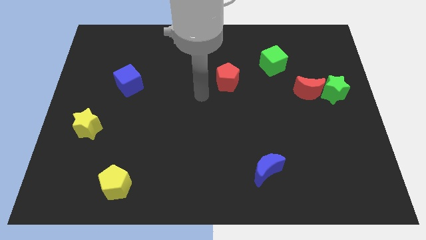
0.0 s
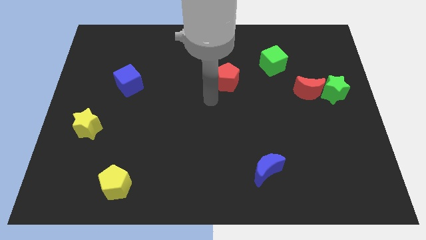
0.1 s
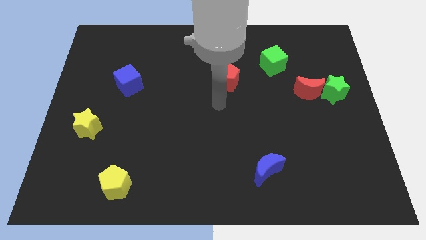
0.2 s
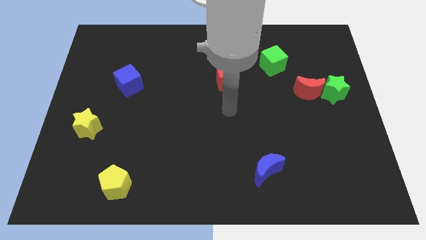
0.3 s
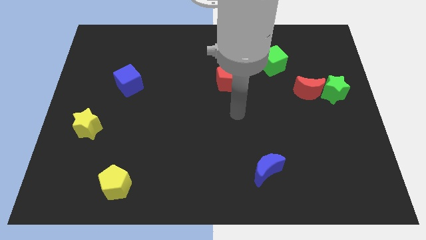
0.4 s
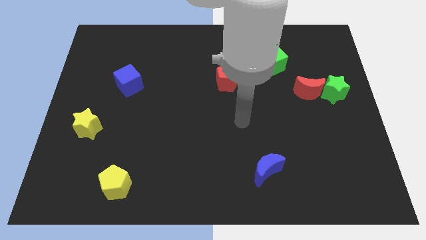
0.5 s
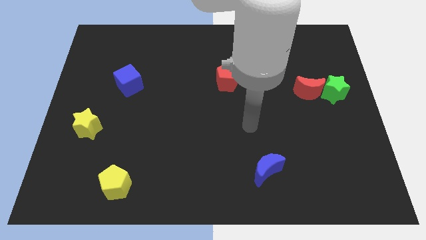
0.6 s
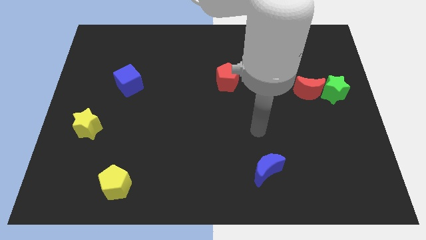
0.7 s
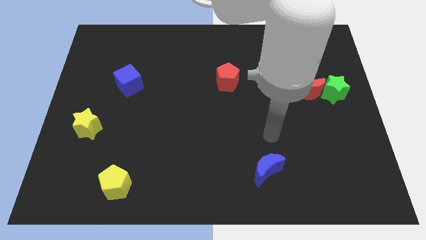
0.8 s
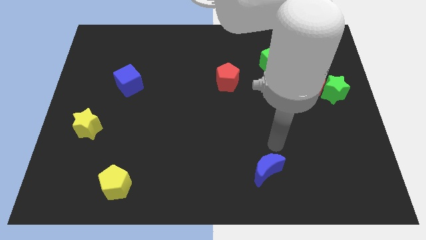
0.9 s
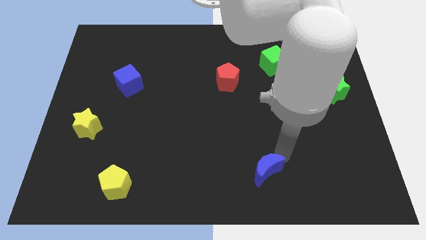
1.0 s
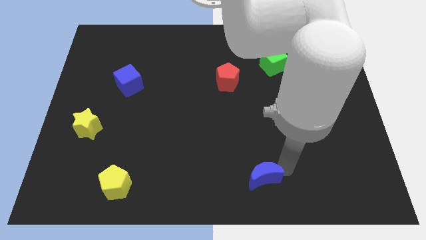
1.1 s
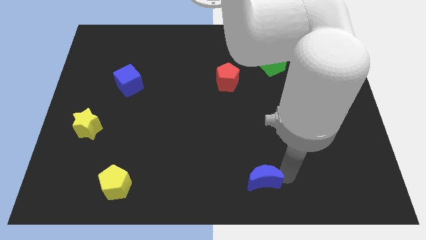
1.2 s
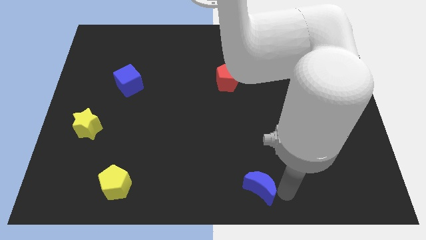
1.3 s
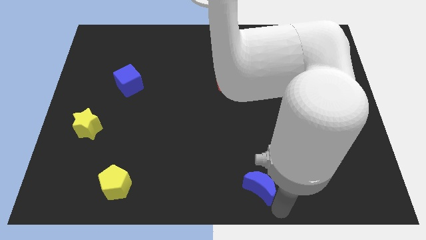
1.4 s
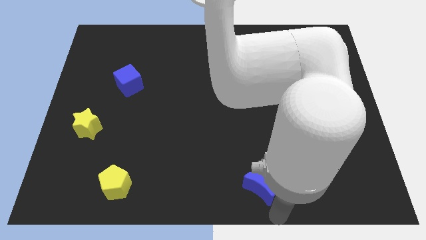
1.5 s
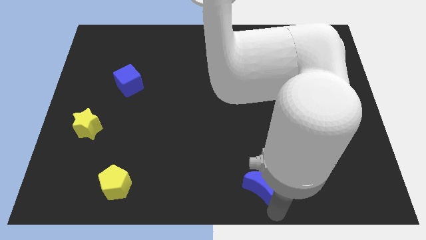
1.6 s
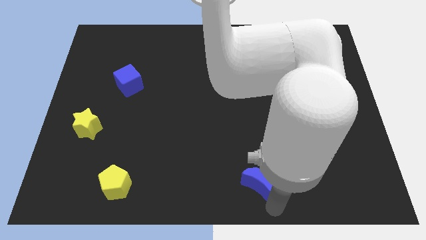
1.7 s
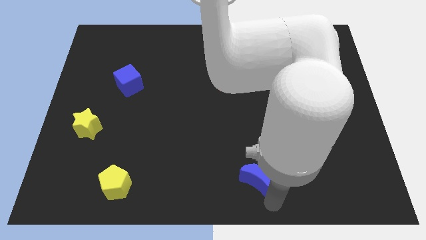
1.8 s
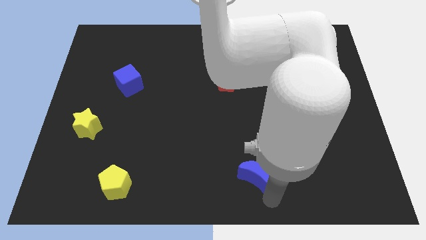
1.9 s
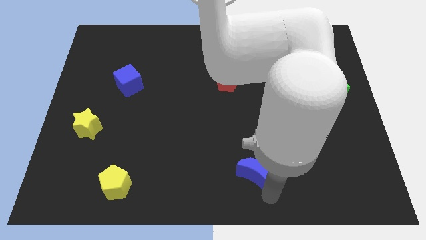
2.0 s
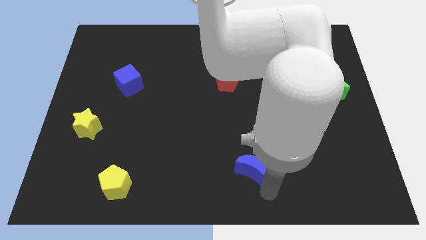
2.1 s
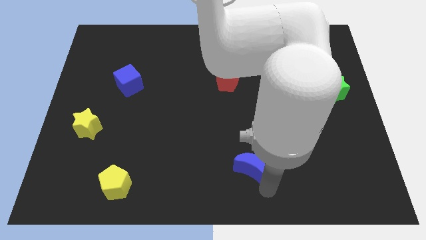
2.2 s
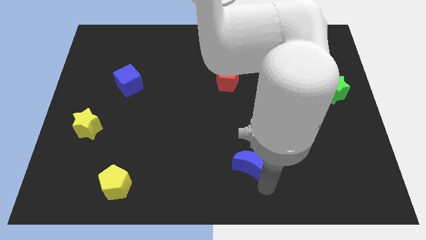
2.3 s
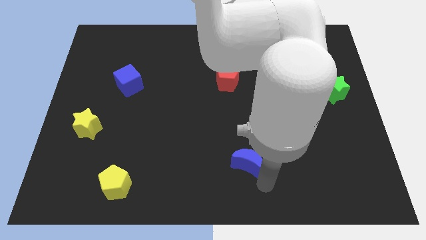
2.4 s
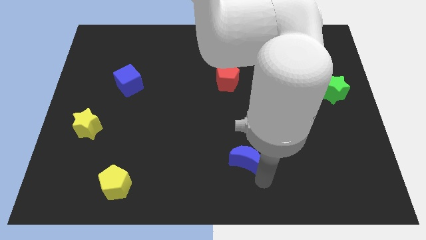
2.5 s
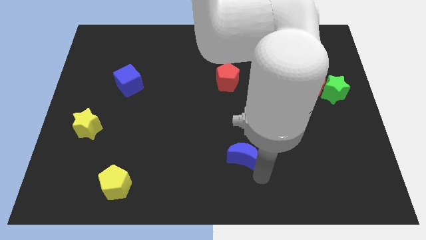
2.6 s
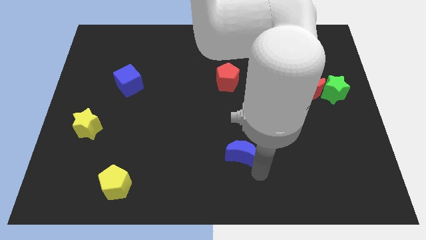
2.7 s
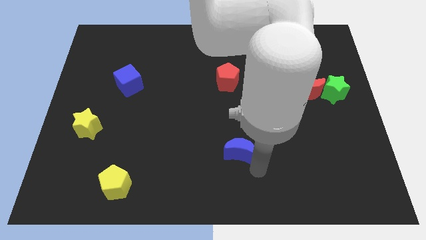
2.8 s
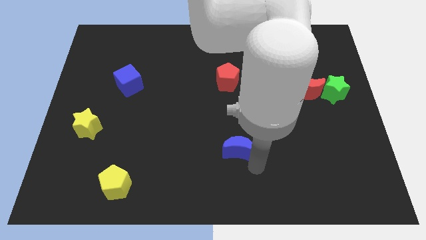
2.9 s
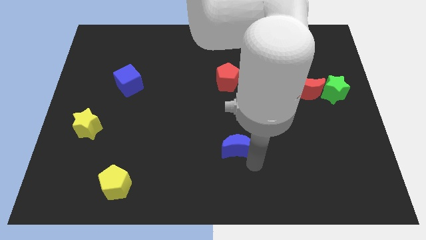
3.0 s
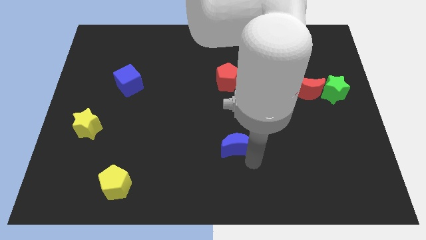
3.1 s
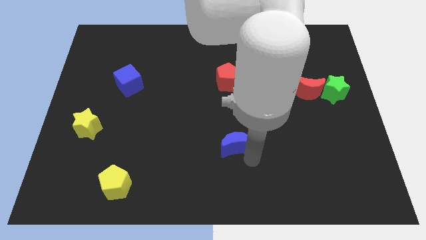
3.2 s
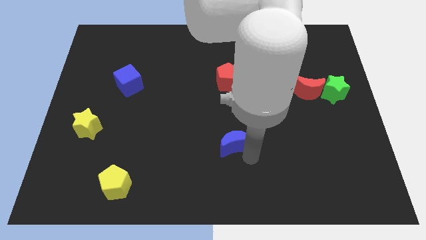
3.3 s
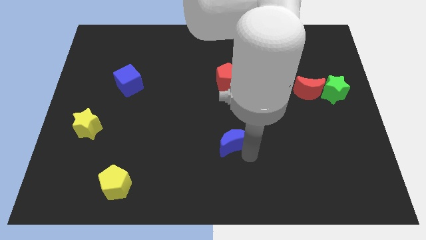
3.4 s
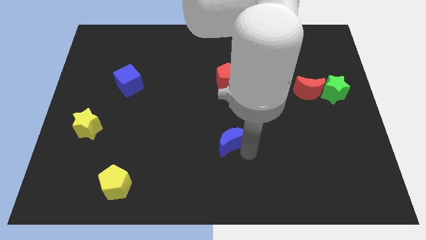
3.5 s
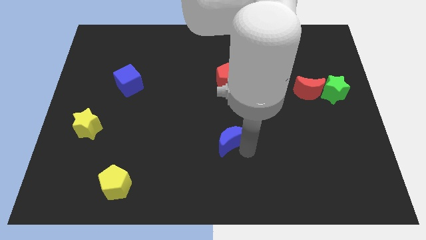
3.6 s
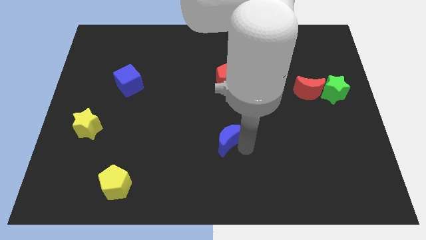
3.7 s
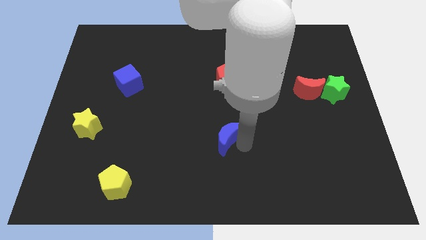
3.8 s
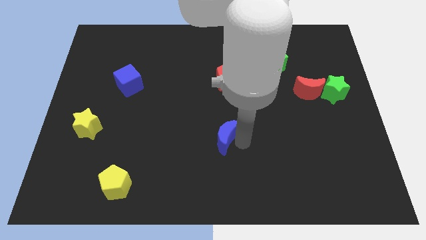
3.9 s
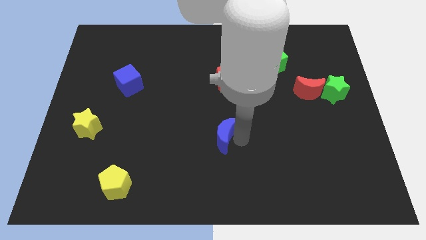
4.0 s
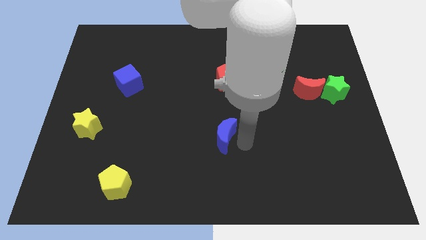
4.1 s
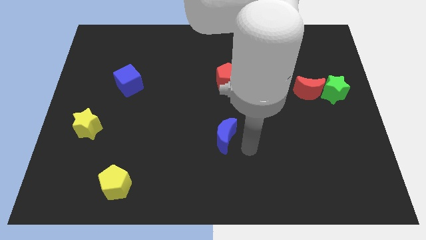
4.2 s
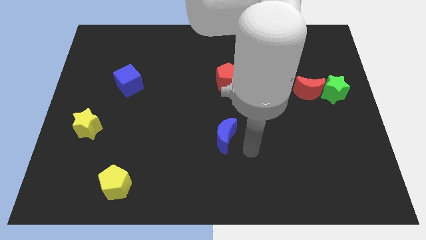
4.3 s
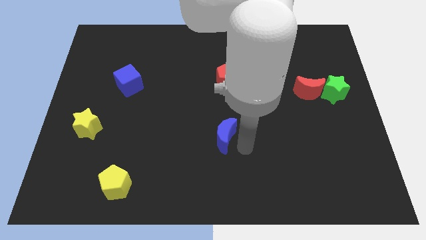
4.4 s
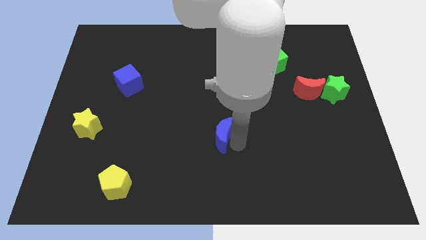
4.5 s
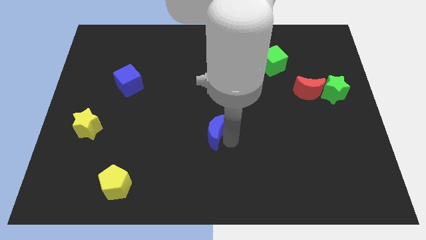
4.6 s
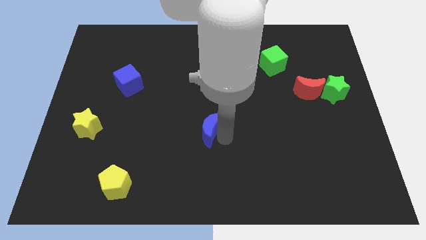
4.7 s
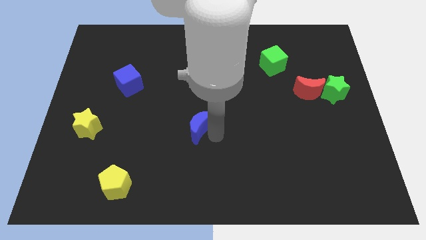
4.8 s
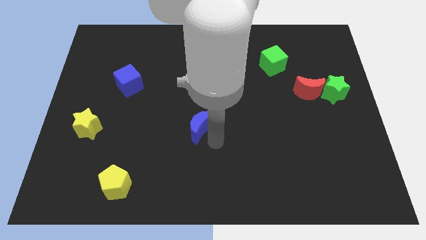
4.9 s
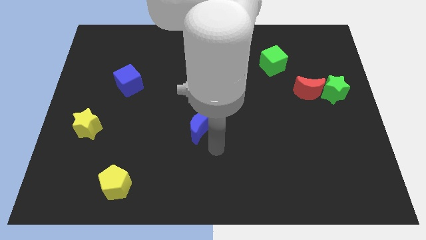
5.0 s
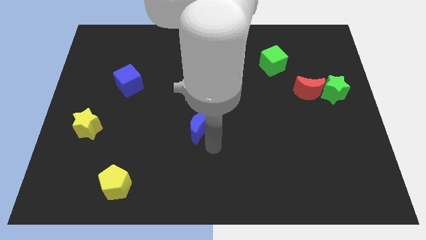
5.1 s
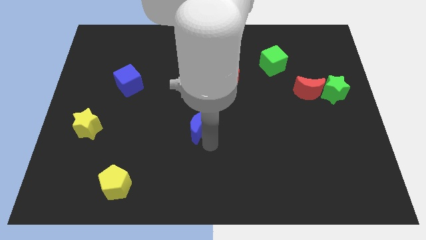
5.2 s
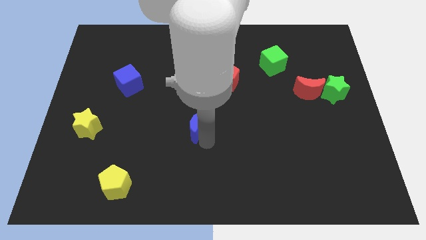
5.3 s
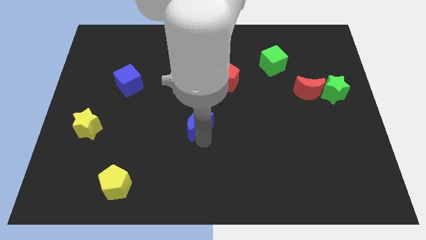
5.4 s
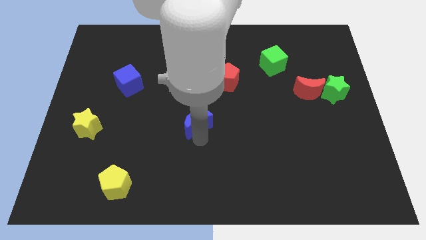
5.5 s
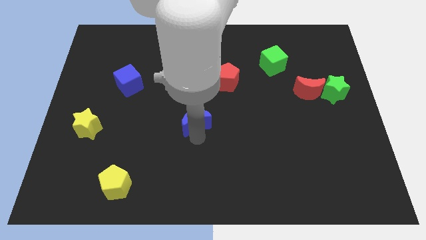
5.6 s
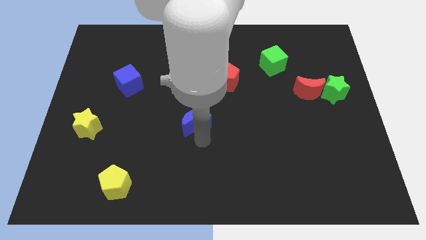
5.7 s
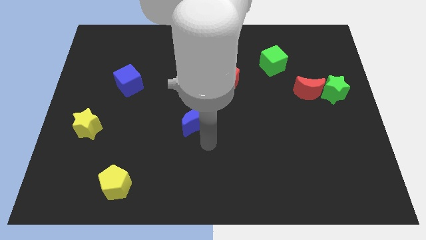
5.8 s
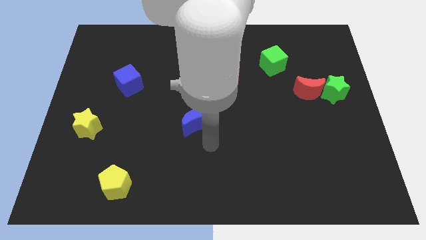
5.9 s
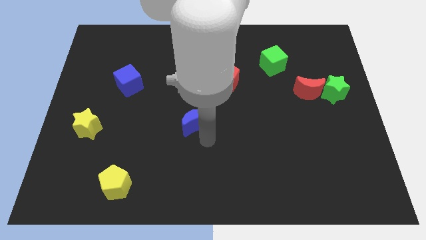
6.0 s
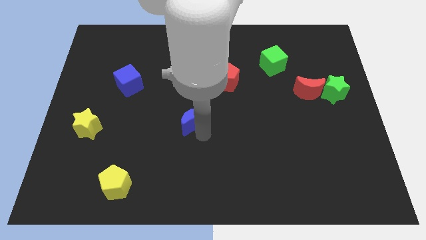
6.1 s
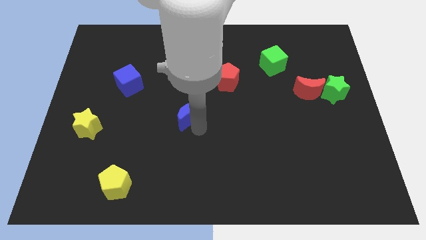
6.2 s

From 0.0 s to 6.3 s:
move the blue moon upwards and then to the left

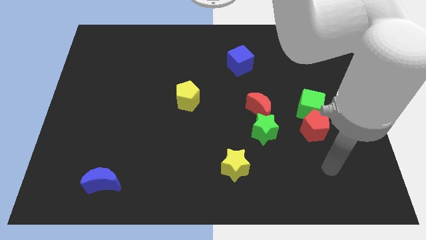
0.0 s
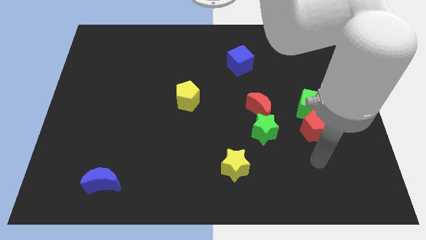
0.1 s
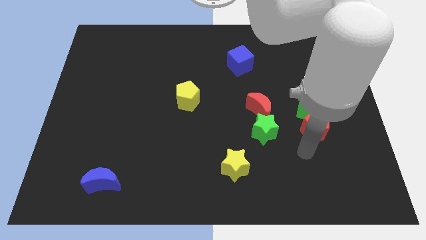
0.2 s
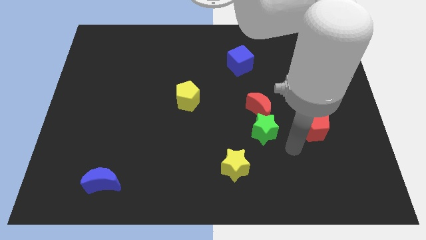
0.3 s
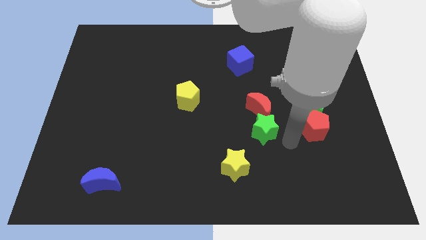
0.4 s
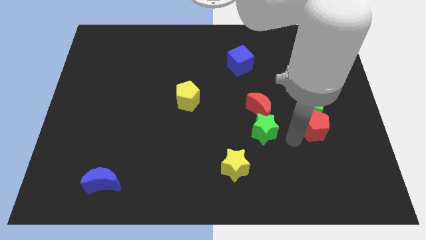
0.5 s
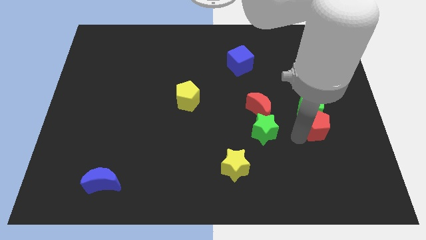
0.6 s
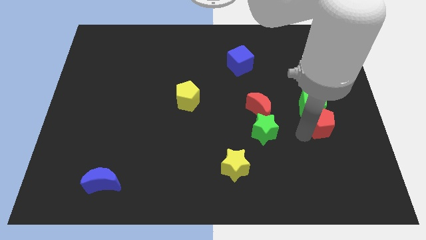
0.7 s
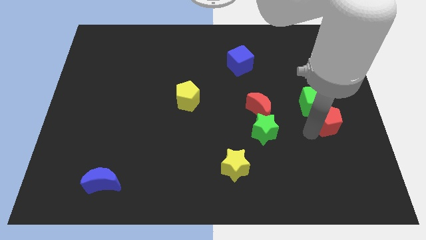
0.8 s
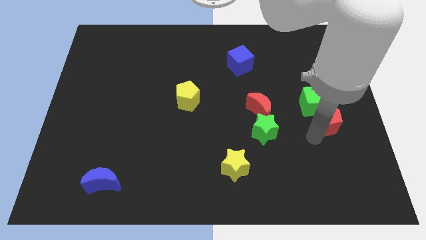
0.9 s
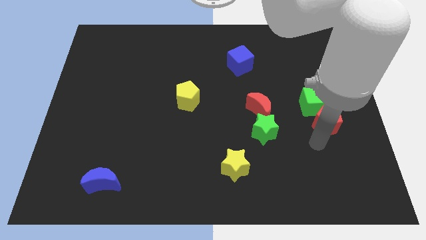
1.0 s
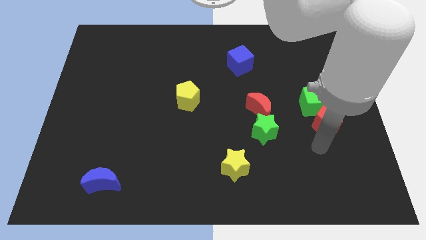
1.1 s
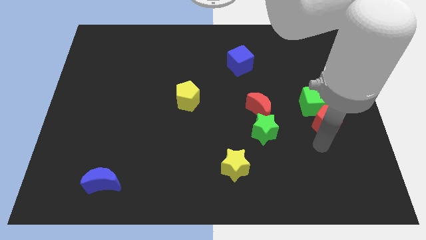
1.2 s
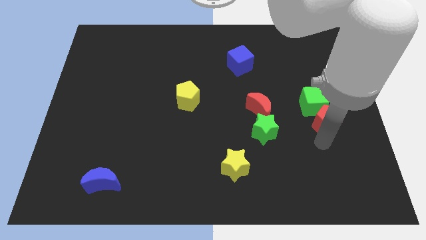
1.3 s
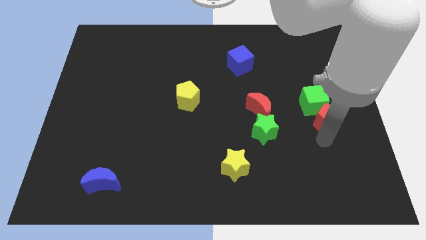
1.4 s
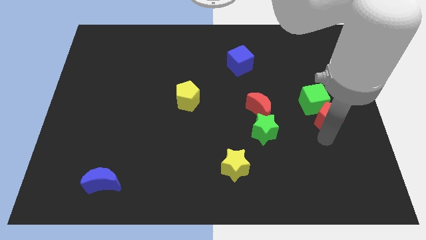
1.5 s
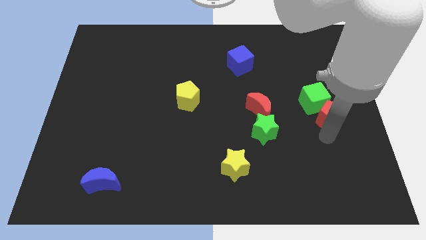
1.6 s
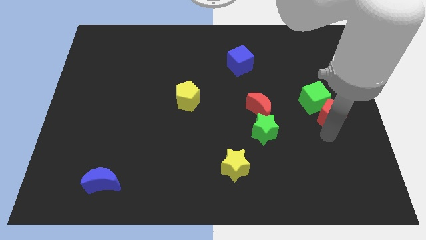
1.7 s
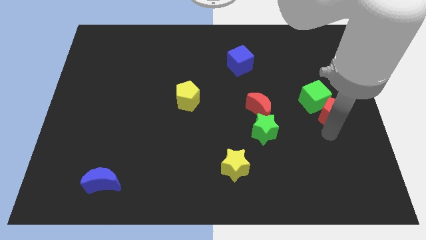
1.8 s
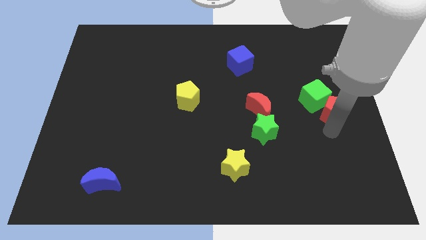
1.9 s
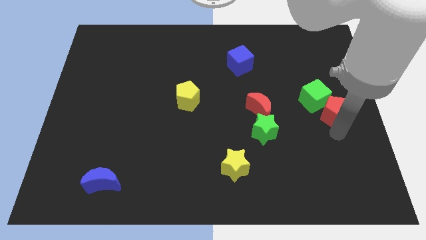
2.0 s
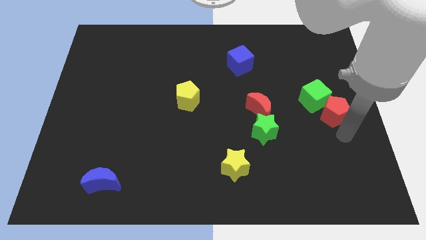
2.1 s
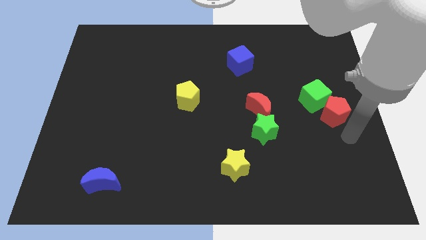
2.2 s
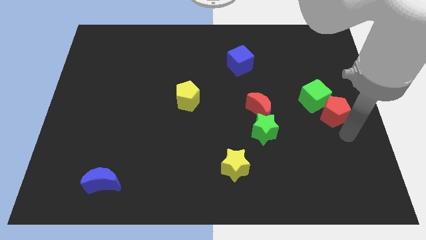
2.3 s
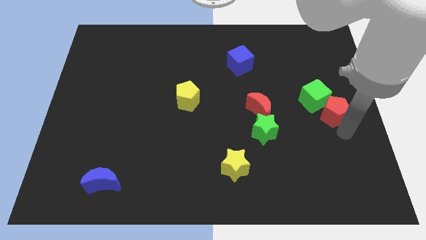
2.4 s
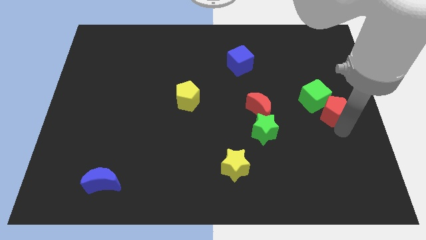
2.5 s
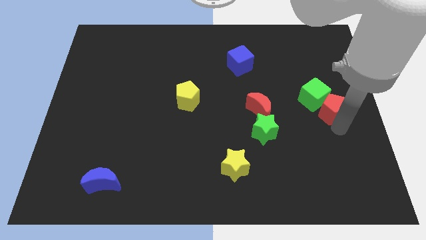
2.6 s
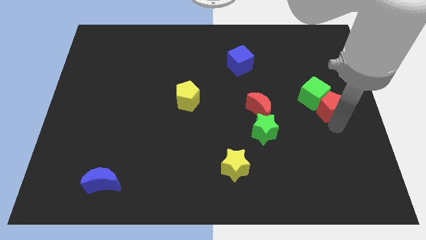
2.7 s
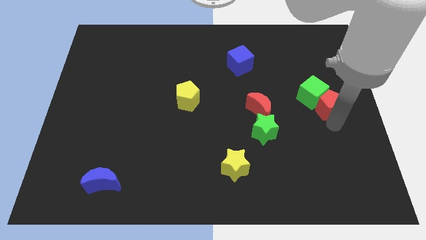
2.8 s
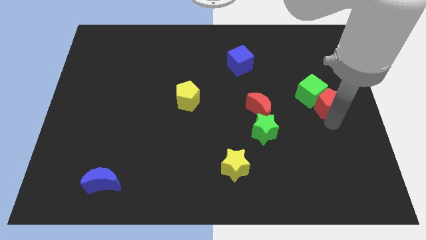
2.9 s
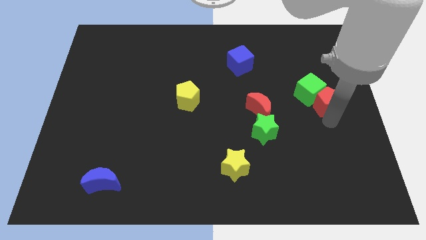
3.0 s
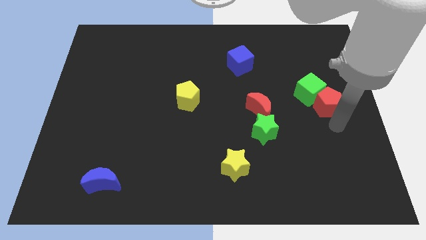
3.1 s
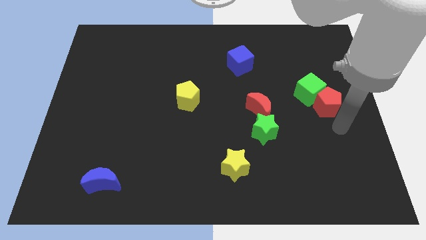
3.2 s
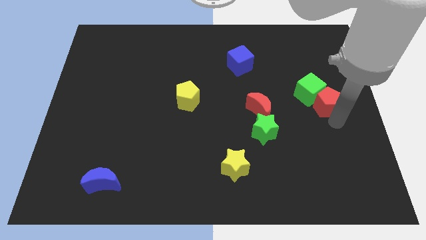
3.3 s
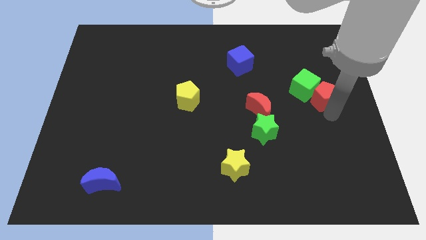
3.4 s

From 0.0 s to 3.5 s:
push the red pentagon up a little bit
